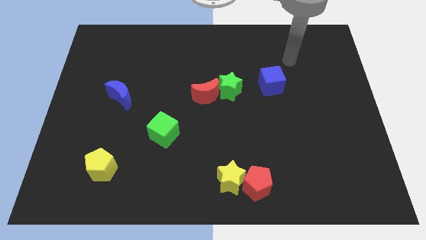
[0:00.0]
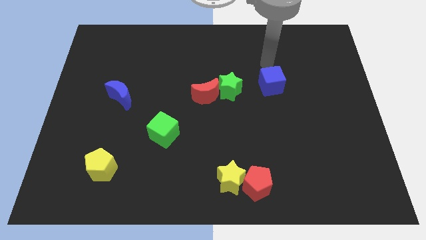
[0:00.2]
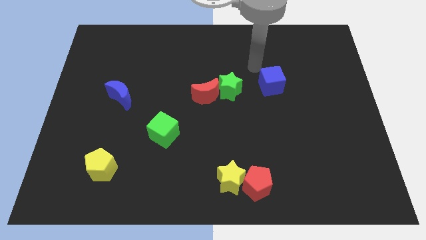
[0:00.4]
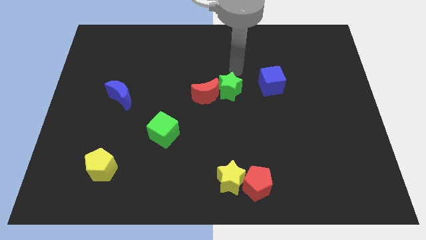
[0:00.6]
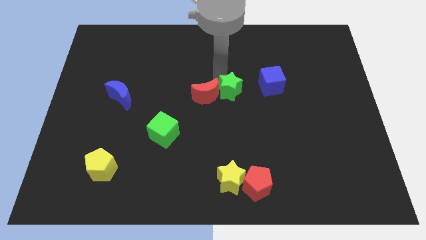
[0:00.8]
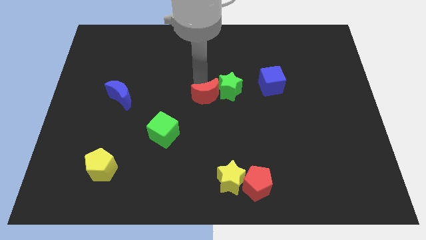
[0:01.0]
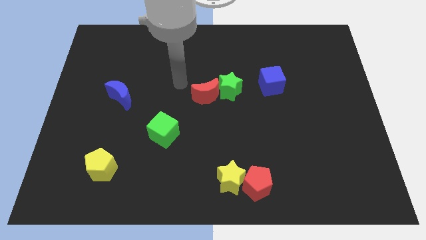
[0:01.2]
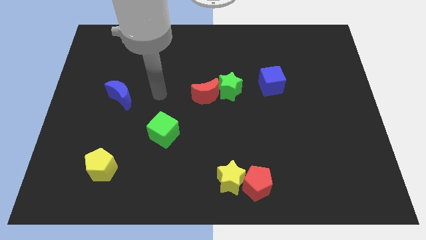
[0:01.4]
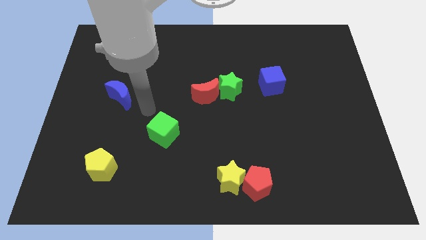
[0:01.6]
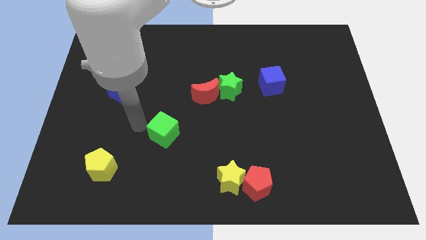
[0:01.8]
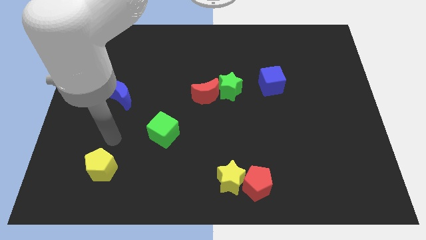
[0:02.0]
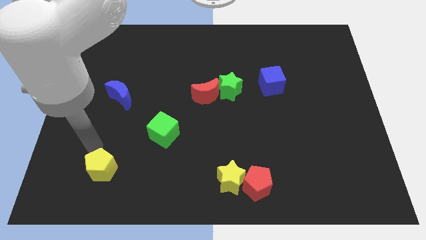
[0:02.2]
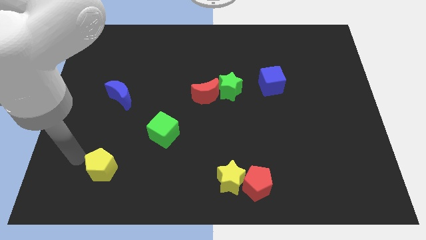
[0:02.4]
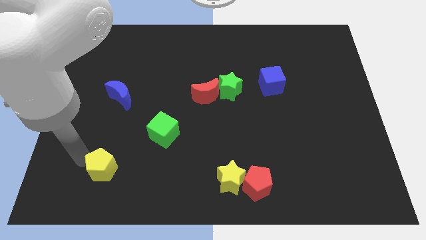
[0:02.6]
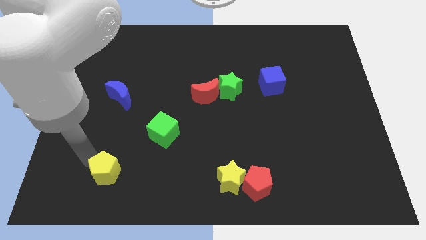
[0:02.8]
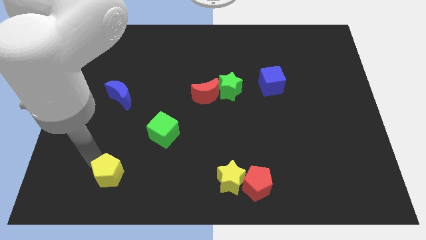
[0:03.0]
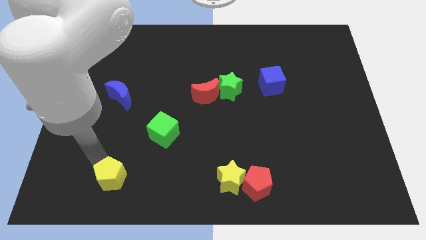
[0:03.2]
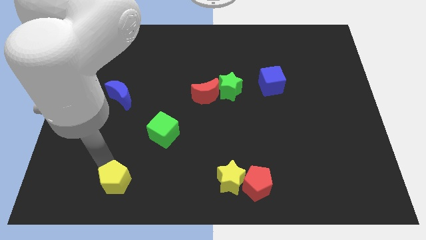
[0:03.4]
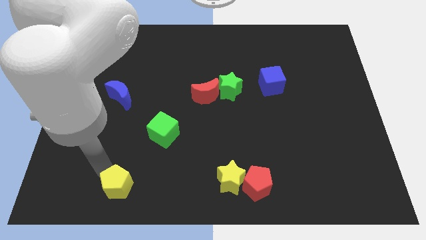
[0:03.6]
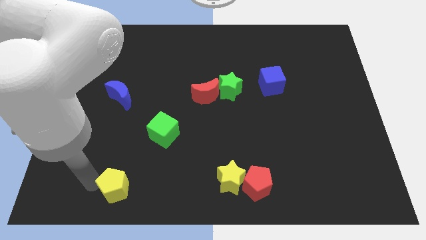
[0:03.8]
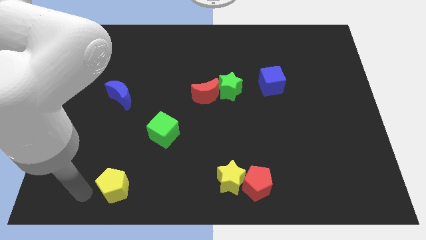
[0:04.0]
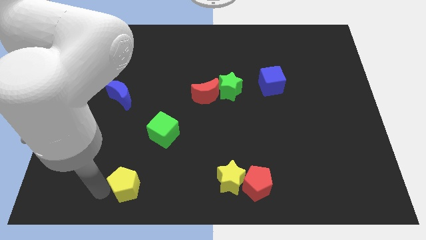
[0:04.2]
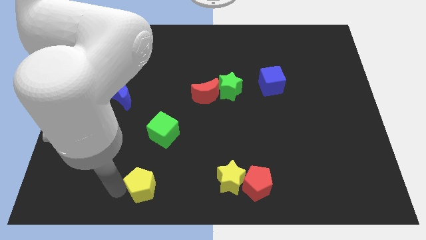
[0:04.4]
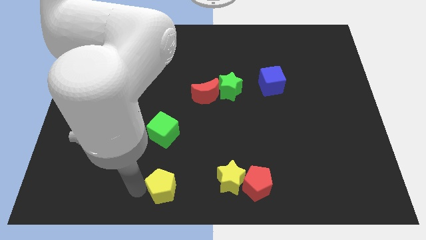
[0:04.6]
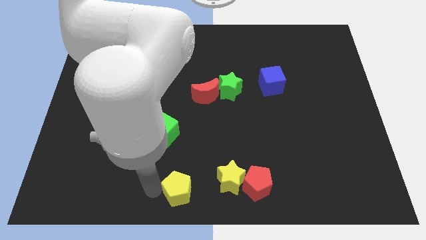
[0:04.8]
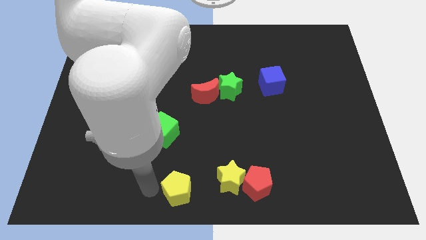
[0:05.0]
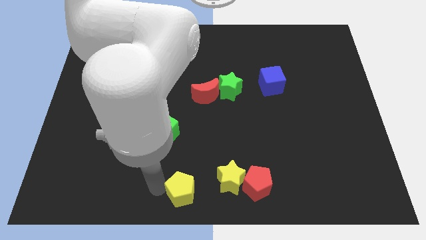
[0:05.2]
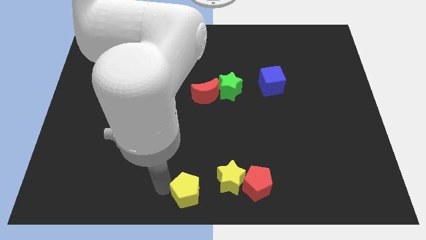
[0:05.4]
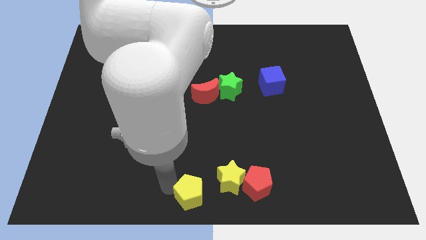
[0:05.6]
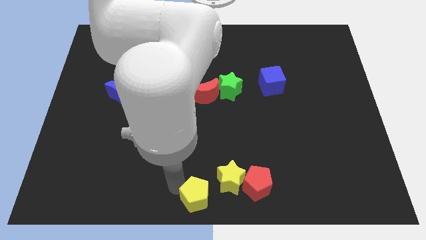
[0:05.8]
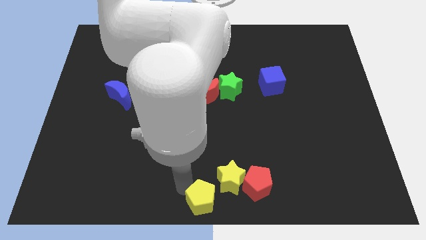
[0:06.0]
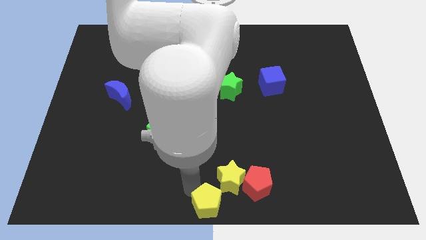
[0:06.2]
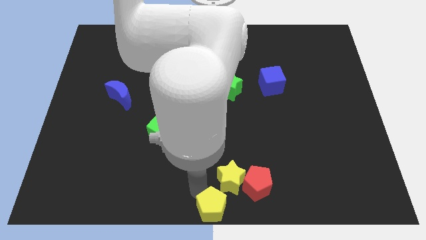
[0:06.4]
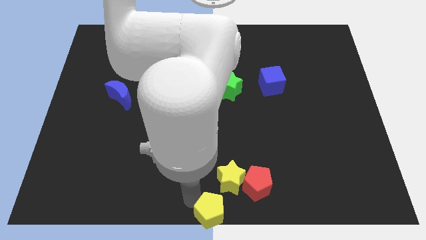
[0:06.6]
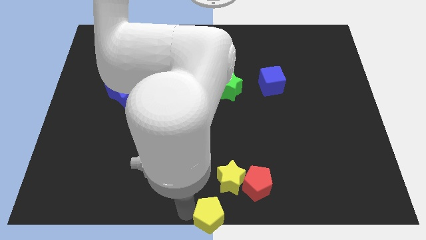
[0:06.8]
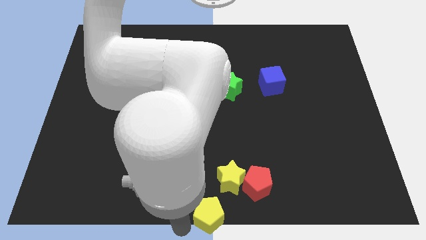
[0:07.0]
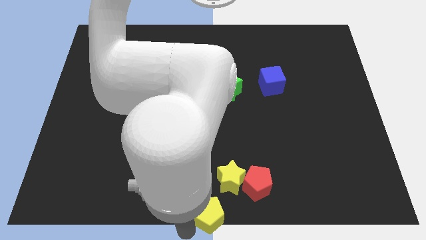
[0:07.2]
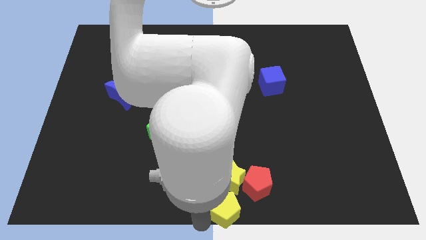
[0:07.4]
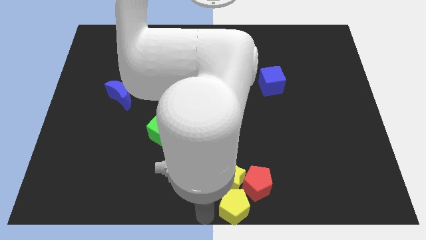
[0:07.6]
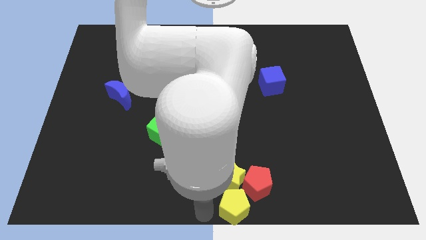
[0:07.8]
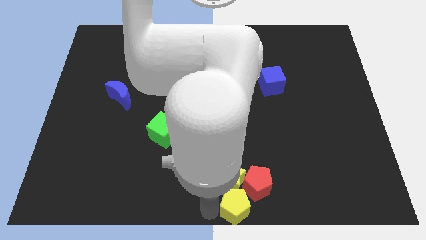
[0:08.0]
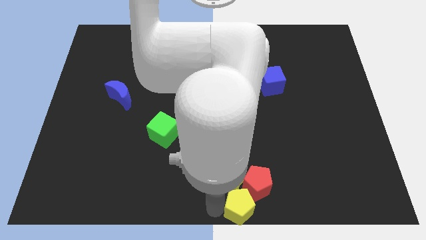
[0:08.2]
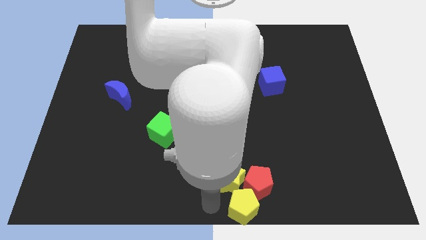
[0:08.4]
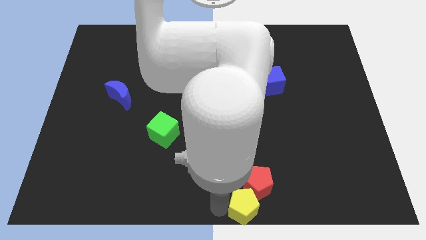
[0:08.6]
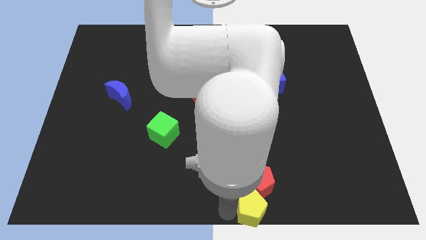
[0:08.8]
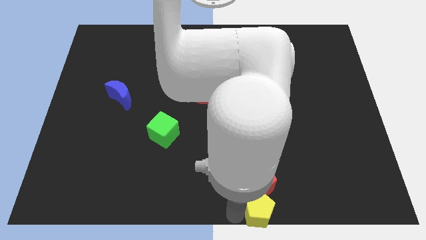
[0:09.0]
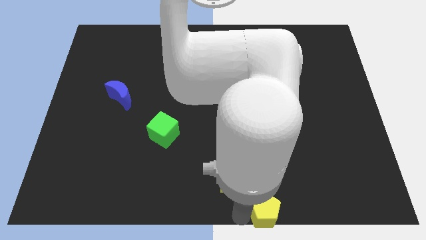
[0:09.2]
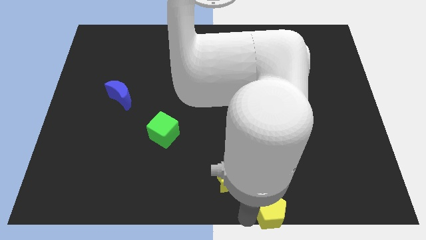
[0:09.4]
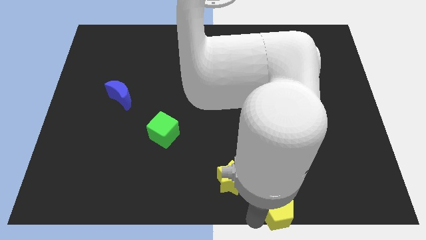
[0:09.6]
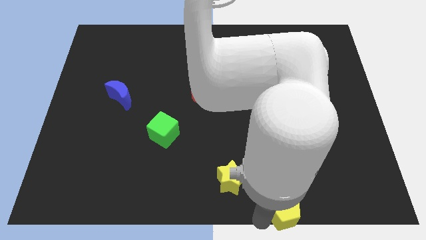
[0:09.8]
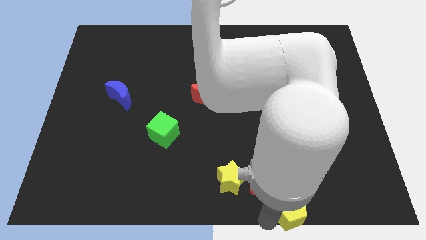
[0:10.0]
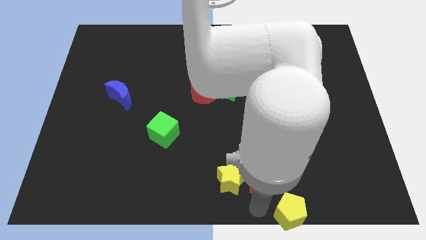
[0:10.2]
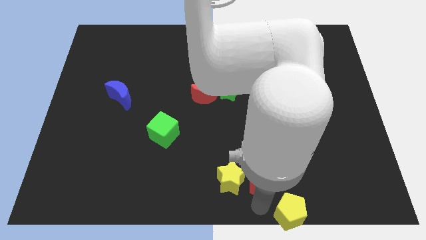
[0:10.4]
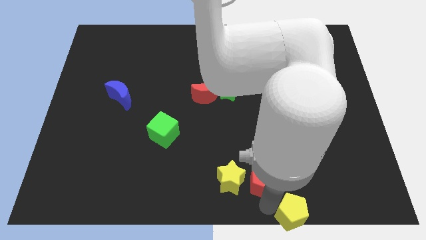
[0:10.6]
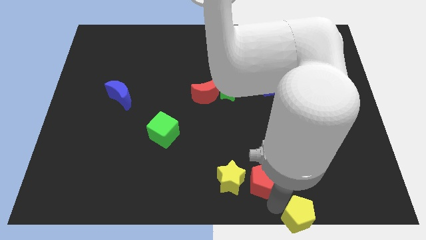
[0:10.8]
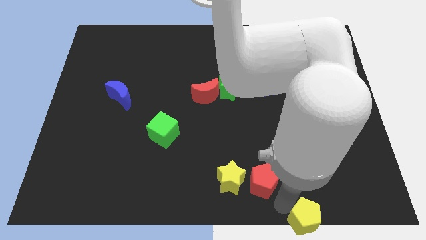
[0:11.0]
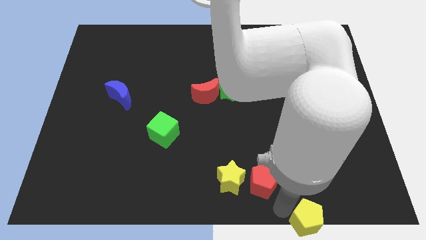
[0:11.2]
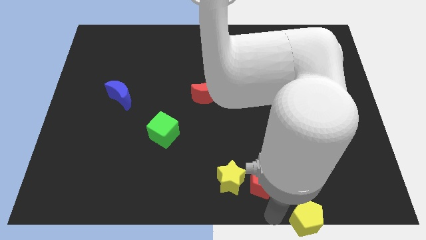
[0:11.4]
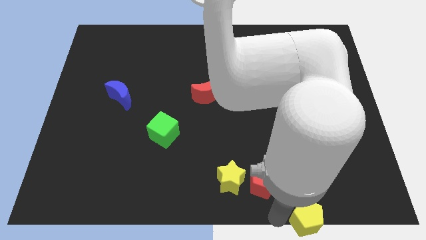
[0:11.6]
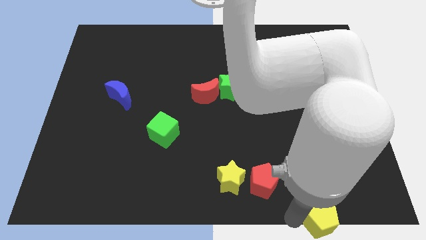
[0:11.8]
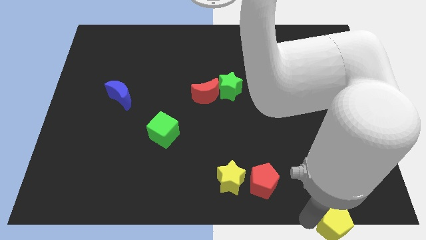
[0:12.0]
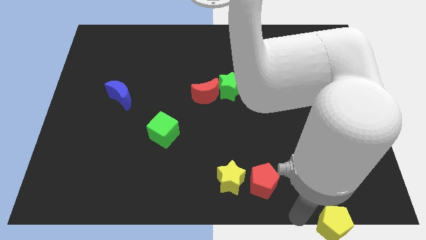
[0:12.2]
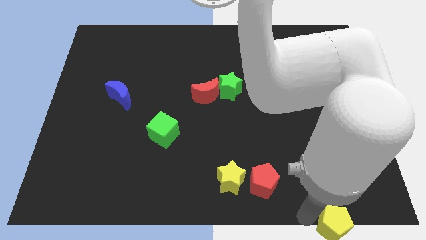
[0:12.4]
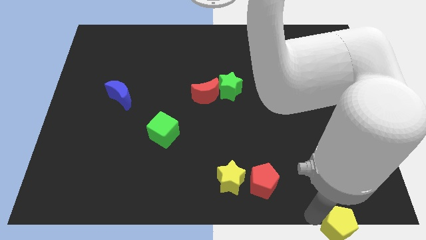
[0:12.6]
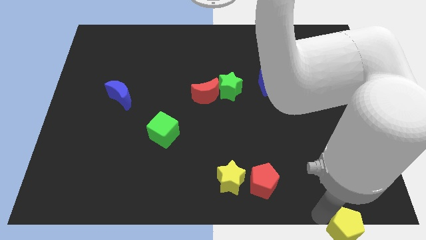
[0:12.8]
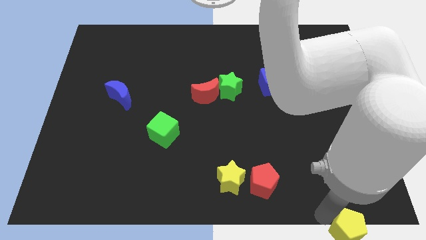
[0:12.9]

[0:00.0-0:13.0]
push the yellow pentagon to the lower right corner
